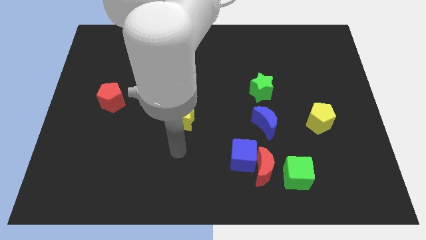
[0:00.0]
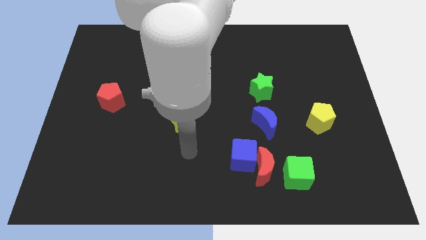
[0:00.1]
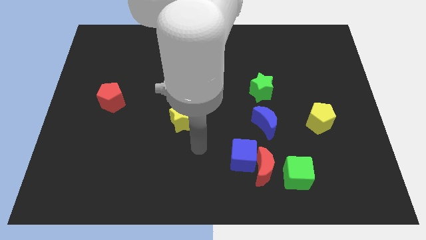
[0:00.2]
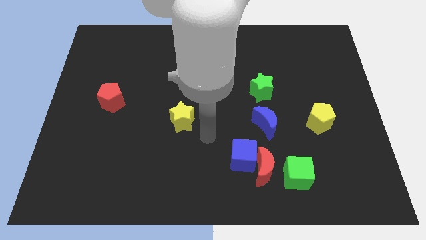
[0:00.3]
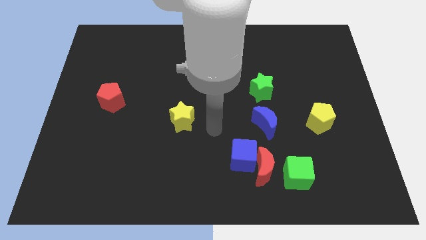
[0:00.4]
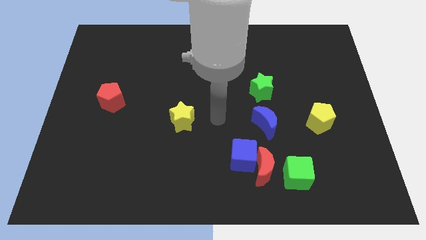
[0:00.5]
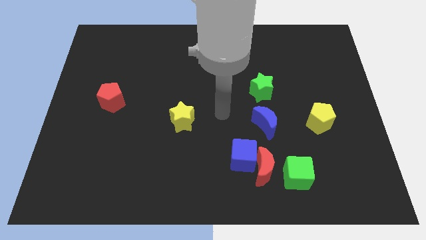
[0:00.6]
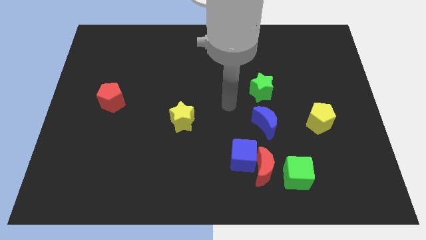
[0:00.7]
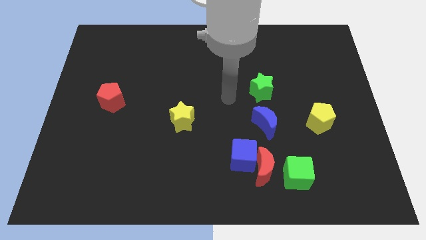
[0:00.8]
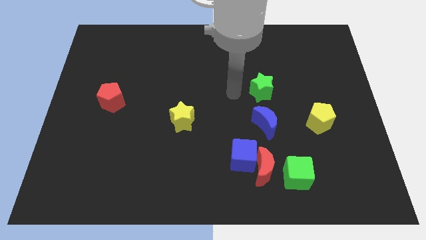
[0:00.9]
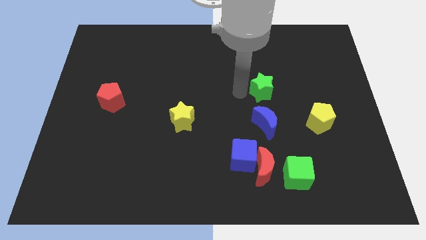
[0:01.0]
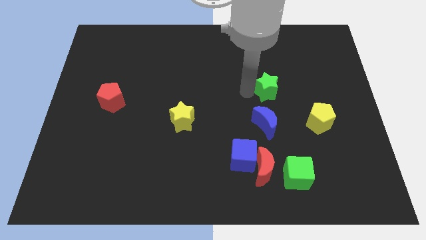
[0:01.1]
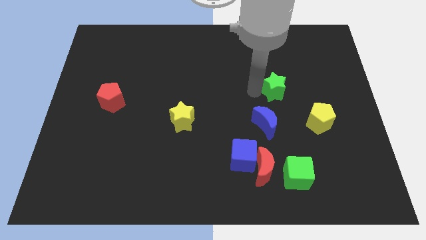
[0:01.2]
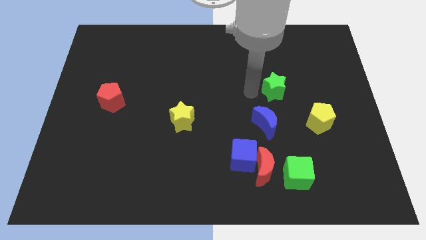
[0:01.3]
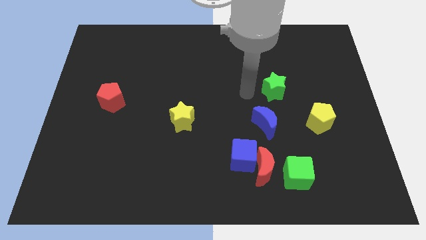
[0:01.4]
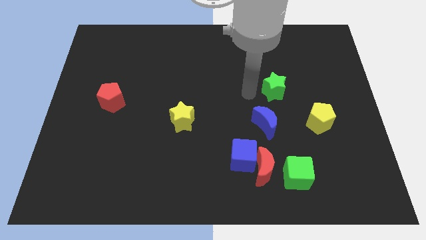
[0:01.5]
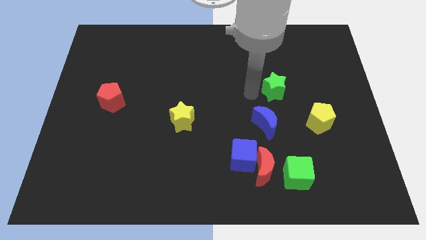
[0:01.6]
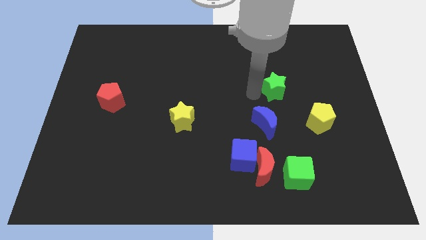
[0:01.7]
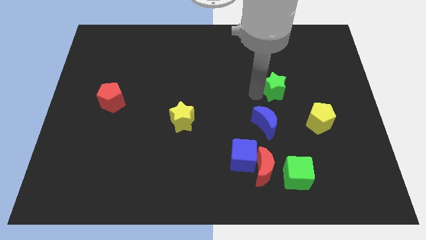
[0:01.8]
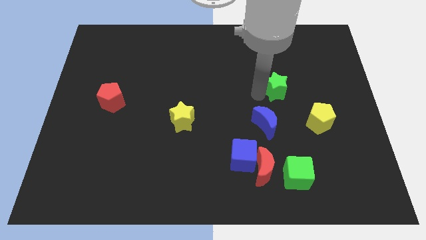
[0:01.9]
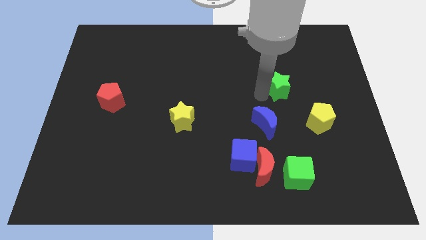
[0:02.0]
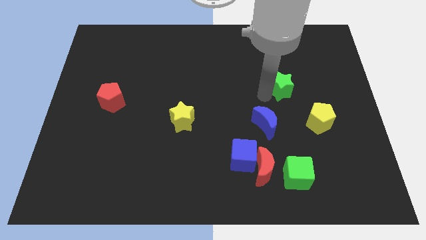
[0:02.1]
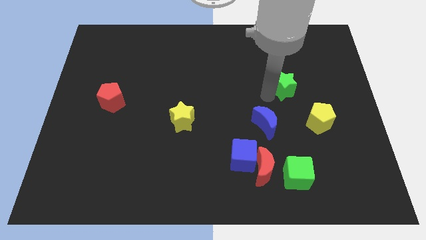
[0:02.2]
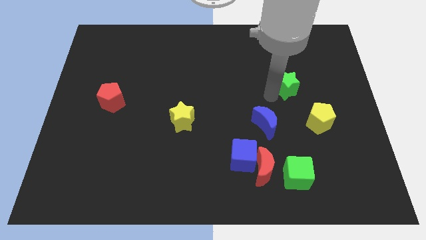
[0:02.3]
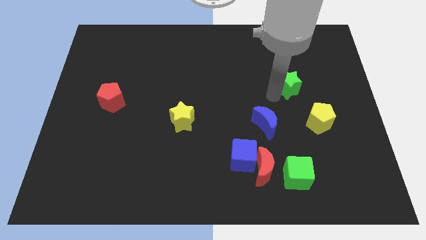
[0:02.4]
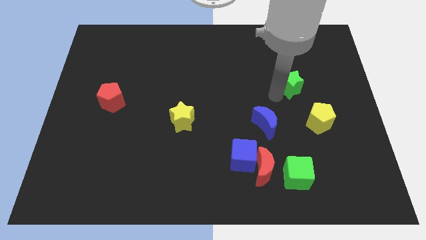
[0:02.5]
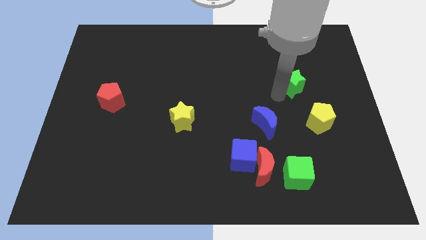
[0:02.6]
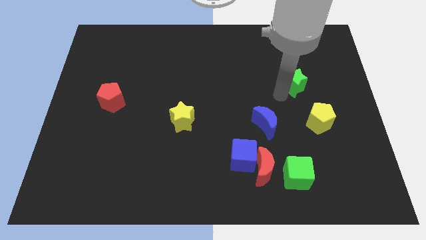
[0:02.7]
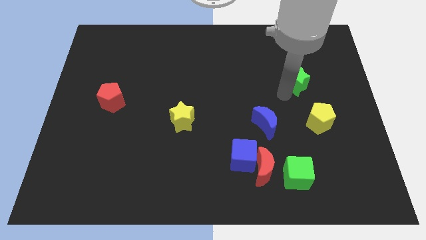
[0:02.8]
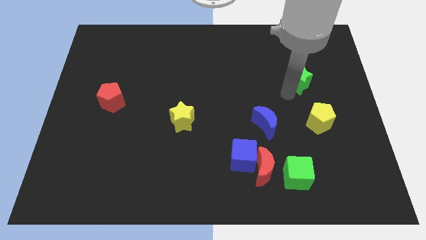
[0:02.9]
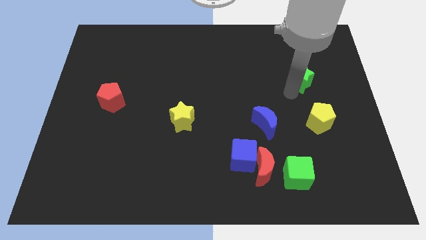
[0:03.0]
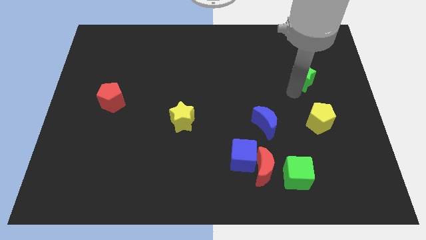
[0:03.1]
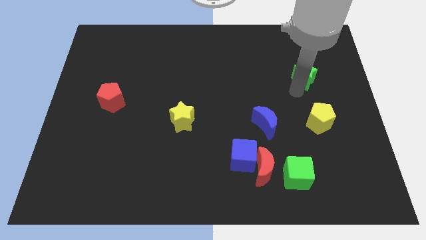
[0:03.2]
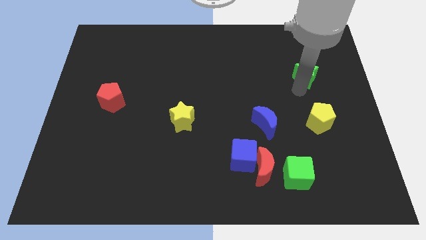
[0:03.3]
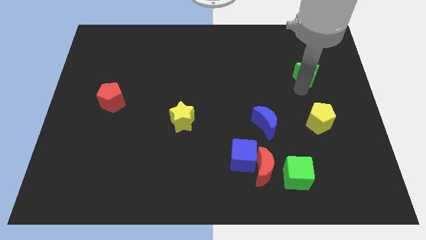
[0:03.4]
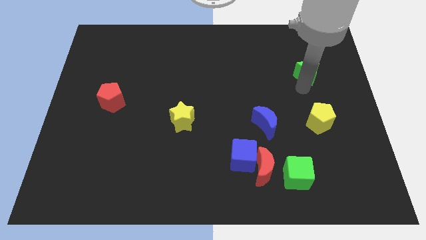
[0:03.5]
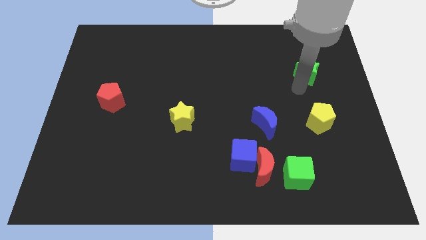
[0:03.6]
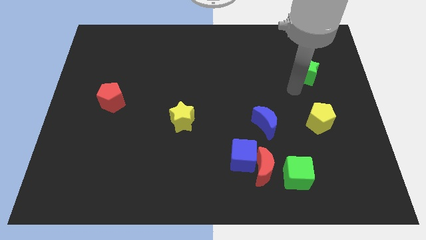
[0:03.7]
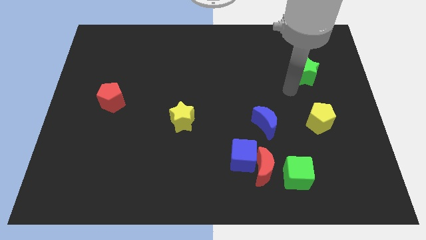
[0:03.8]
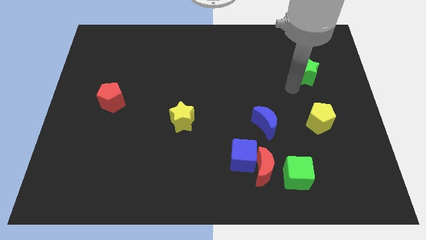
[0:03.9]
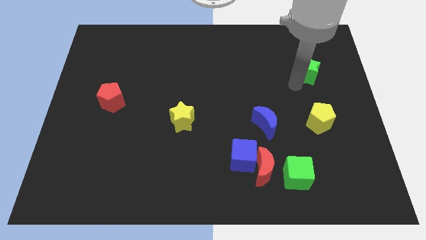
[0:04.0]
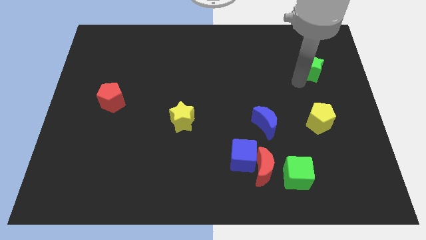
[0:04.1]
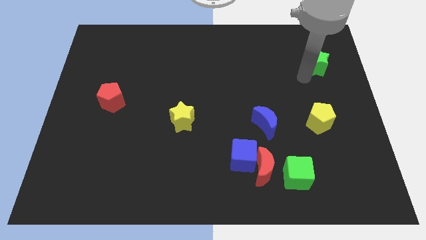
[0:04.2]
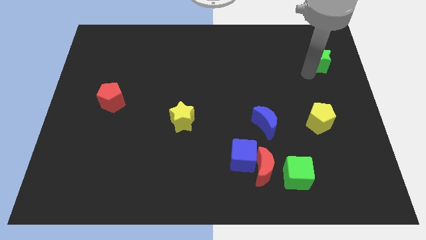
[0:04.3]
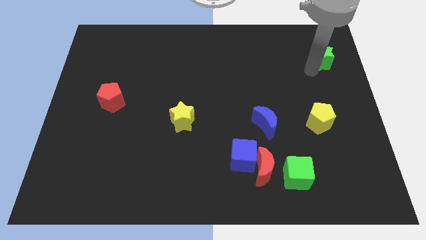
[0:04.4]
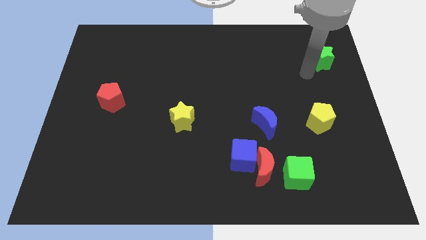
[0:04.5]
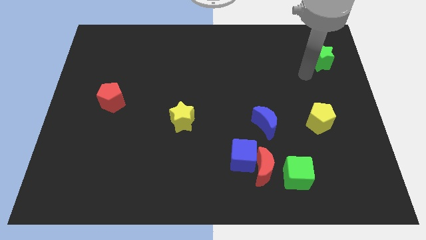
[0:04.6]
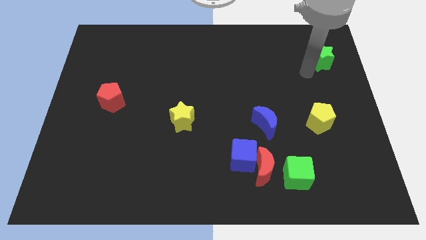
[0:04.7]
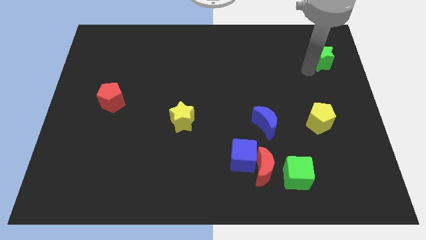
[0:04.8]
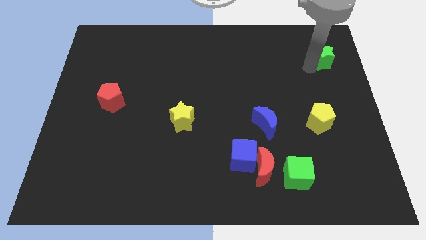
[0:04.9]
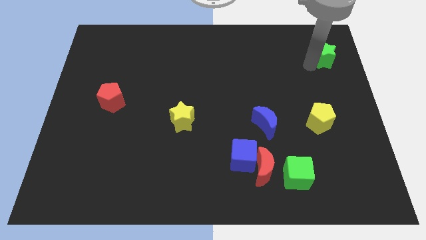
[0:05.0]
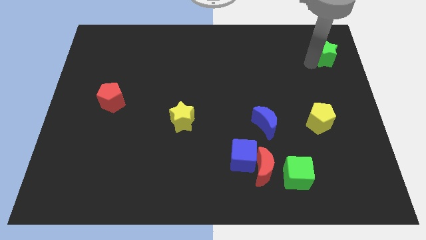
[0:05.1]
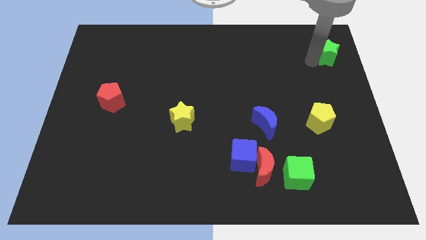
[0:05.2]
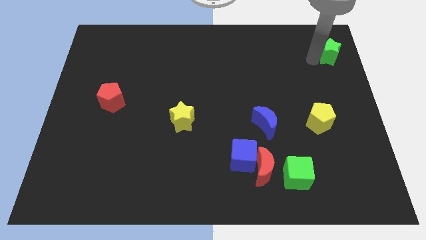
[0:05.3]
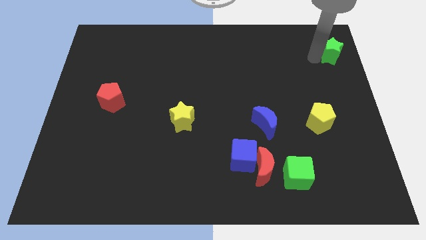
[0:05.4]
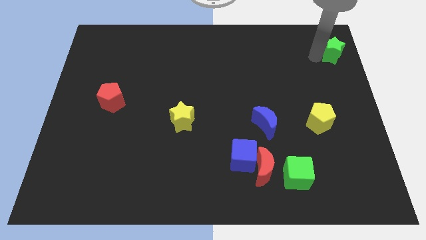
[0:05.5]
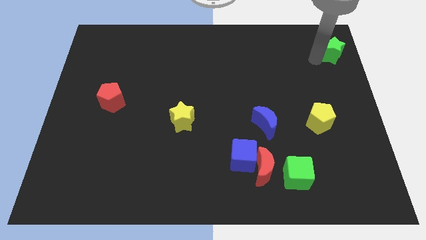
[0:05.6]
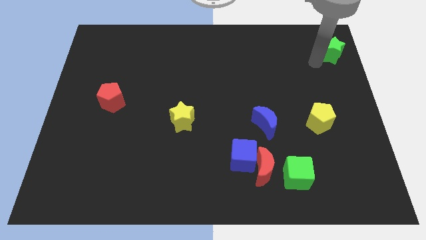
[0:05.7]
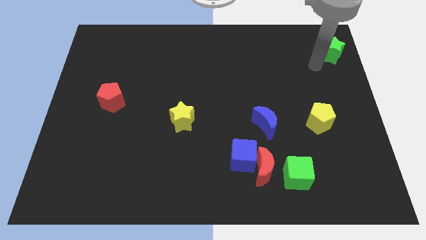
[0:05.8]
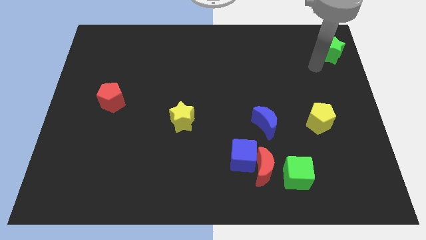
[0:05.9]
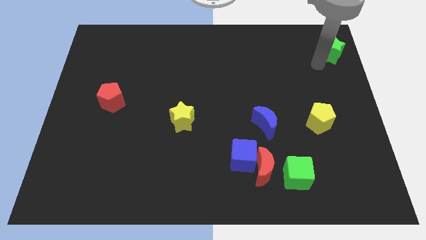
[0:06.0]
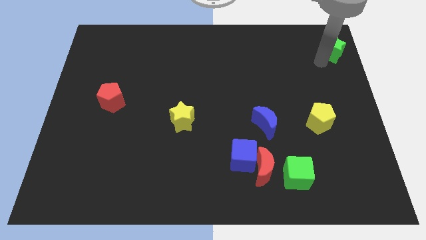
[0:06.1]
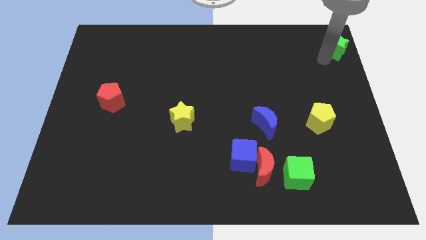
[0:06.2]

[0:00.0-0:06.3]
move the green star to the top right of the board

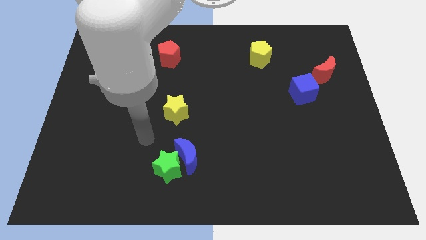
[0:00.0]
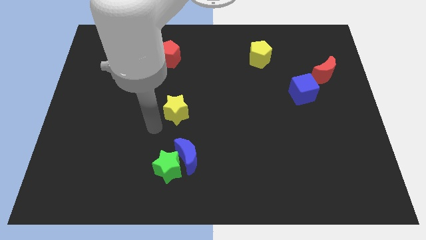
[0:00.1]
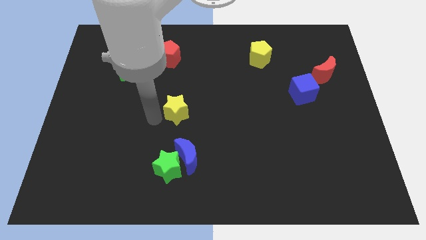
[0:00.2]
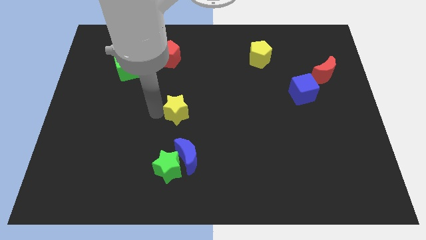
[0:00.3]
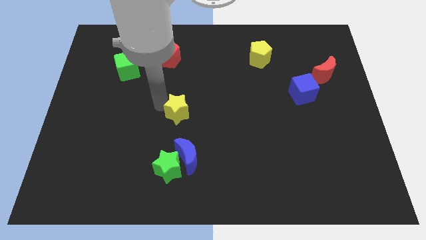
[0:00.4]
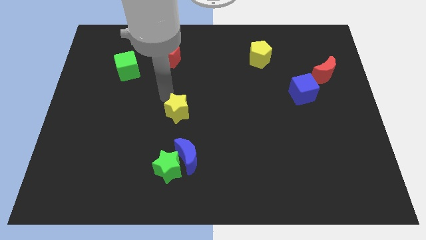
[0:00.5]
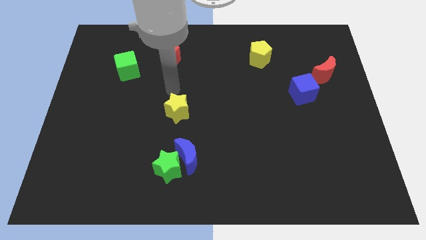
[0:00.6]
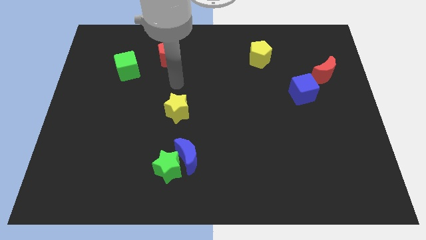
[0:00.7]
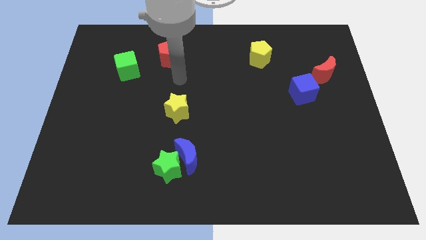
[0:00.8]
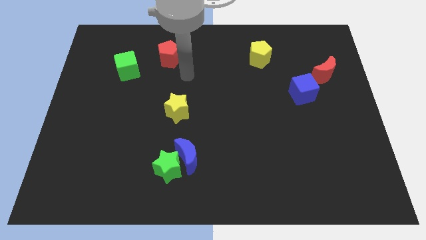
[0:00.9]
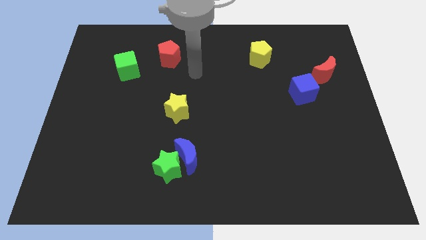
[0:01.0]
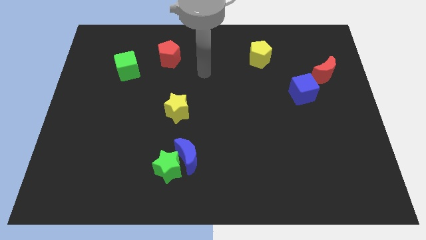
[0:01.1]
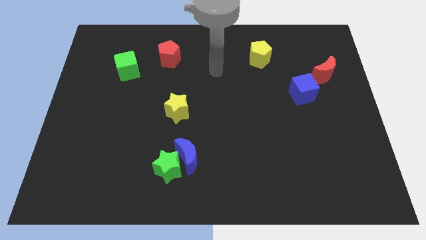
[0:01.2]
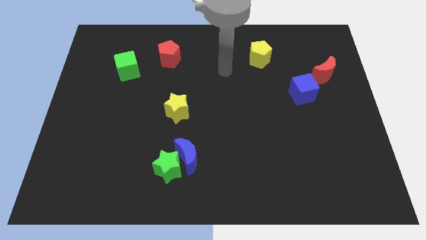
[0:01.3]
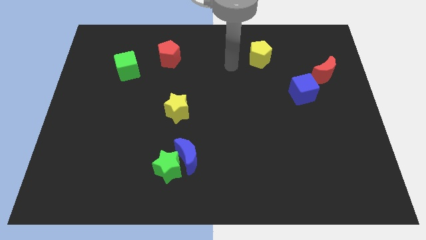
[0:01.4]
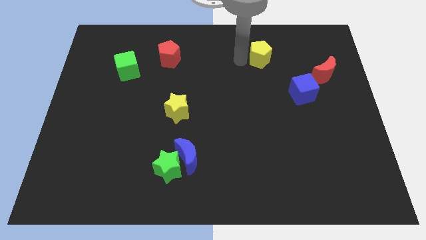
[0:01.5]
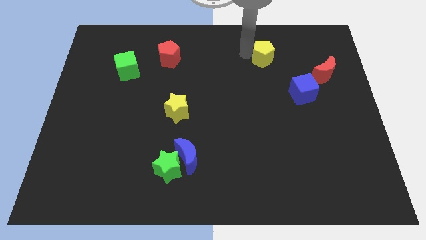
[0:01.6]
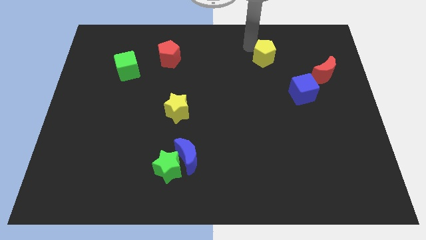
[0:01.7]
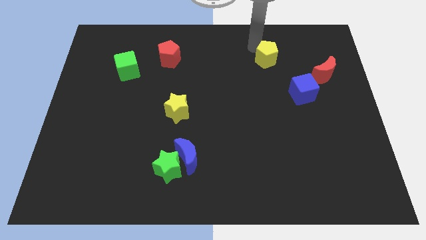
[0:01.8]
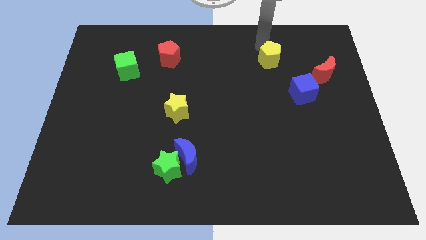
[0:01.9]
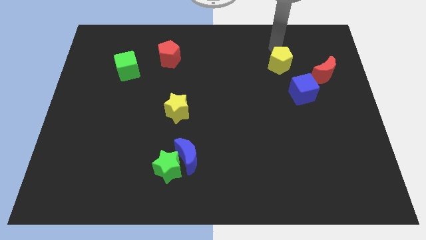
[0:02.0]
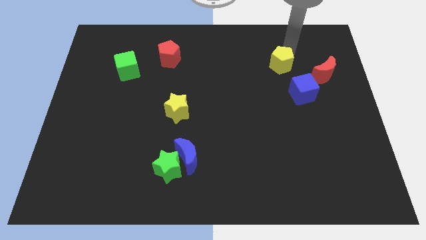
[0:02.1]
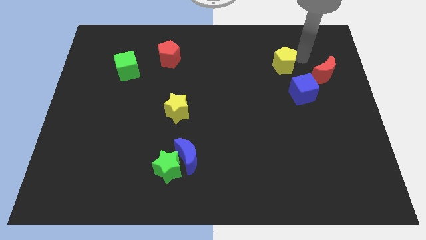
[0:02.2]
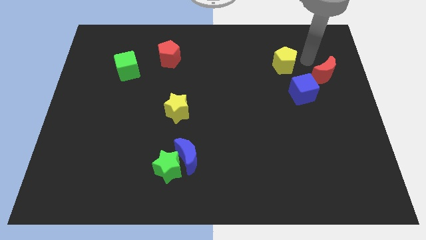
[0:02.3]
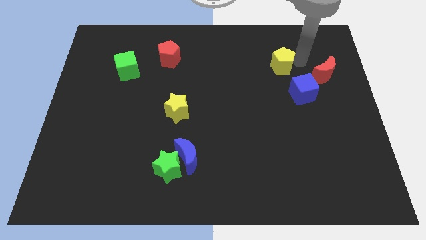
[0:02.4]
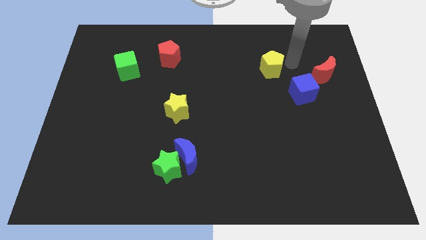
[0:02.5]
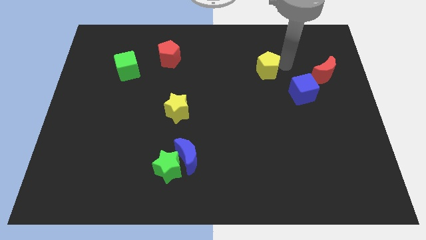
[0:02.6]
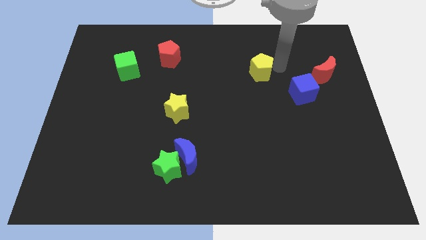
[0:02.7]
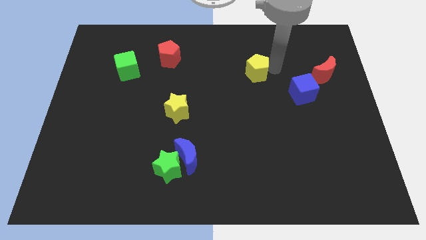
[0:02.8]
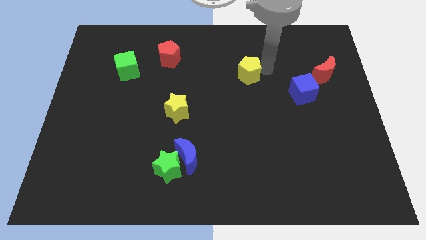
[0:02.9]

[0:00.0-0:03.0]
move the yellow pentagon to the middle of the board
